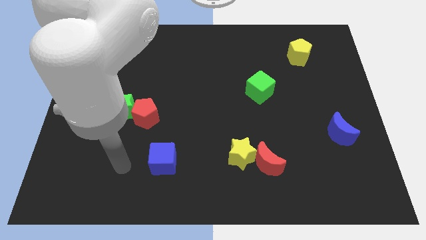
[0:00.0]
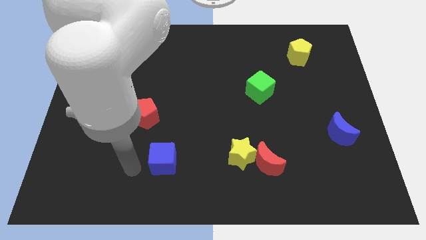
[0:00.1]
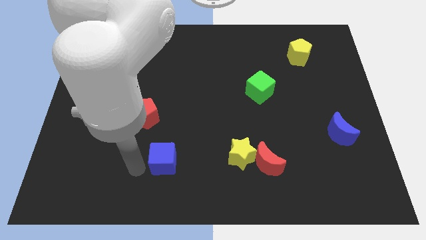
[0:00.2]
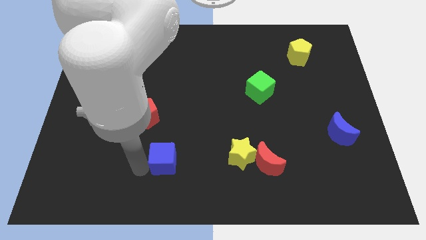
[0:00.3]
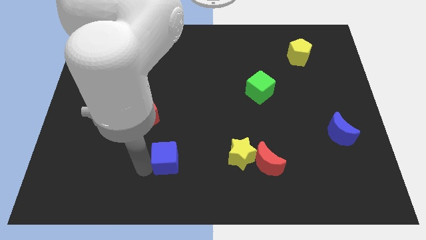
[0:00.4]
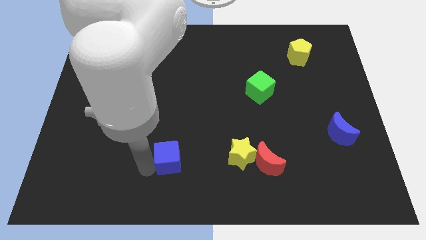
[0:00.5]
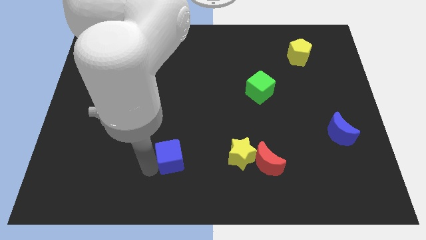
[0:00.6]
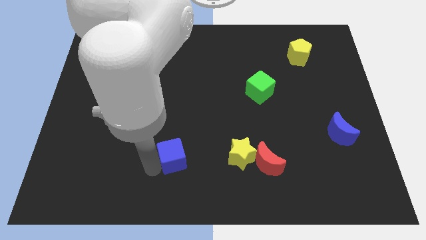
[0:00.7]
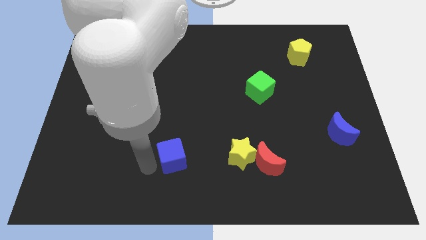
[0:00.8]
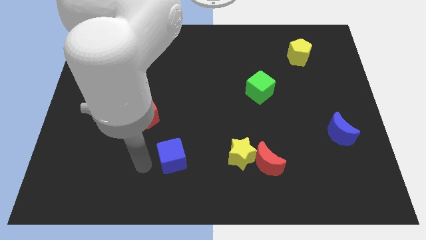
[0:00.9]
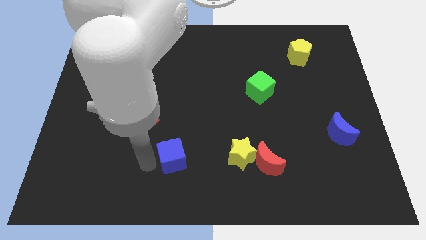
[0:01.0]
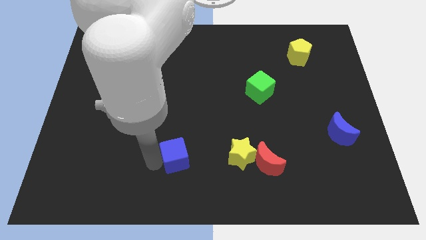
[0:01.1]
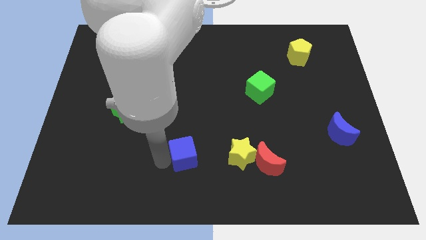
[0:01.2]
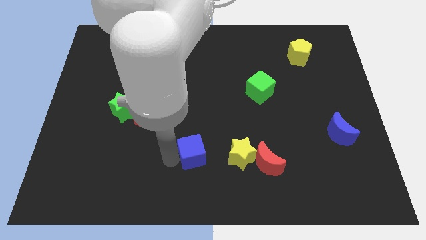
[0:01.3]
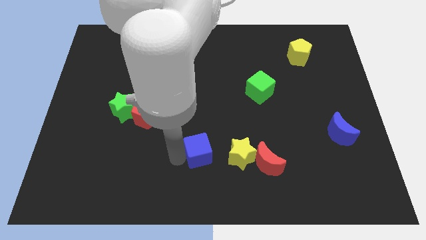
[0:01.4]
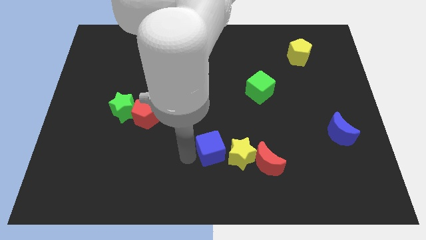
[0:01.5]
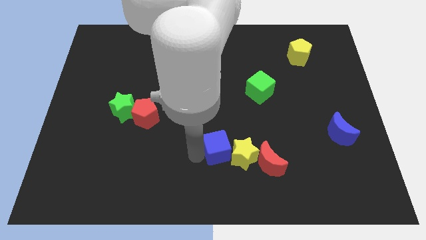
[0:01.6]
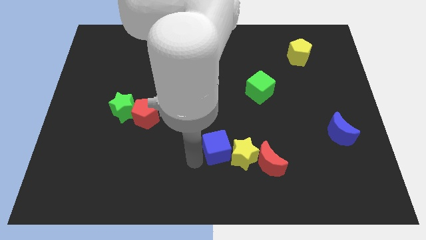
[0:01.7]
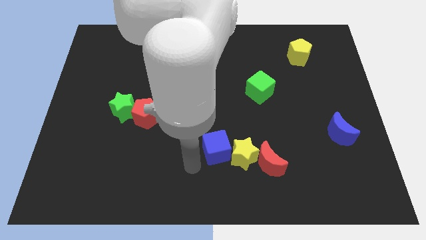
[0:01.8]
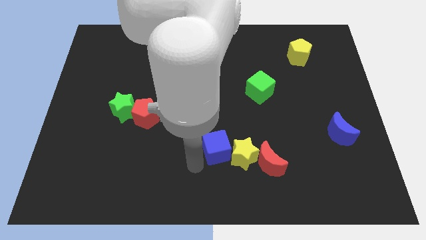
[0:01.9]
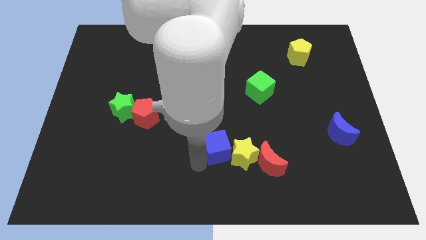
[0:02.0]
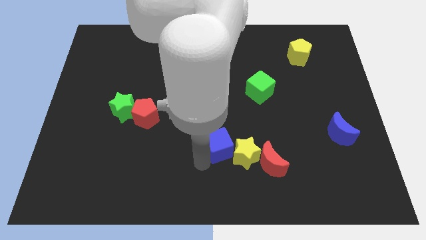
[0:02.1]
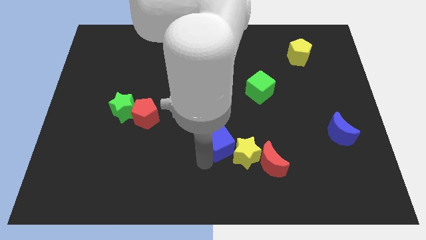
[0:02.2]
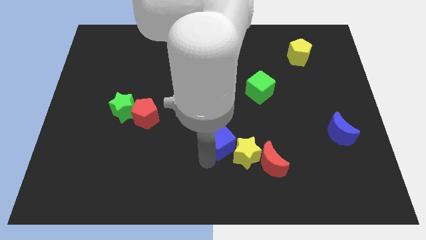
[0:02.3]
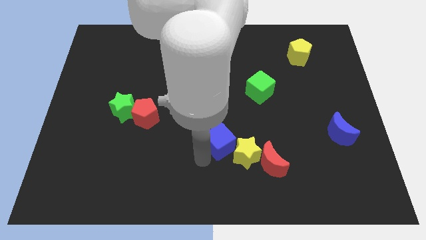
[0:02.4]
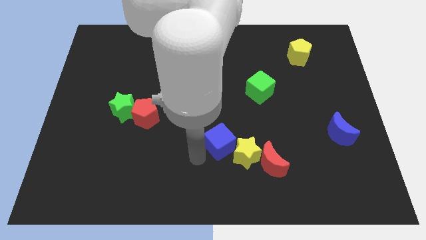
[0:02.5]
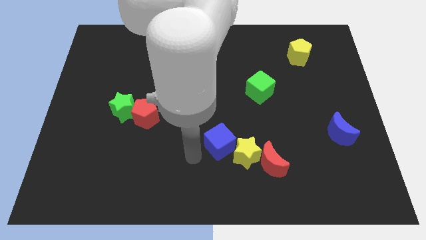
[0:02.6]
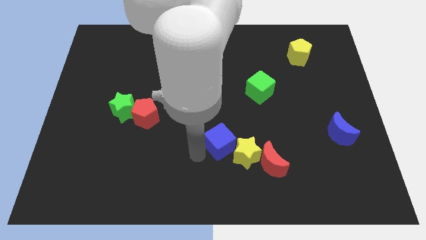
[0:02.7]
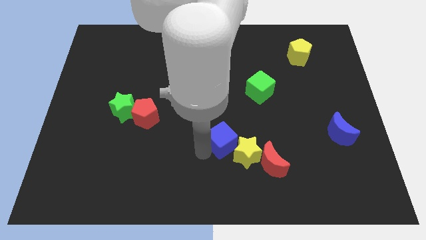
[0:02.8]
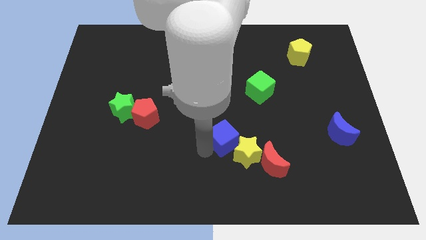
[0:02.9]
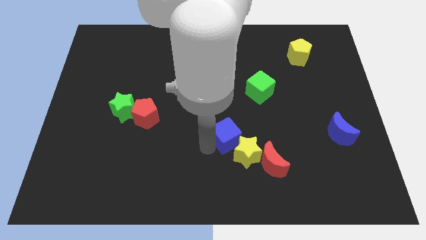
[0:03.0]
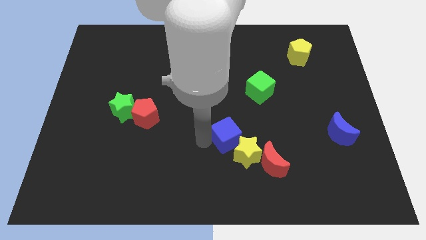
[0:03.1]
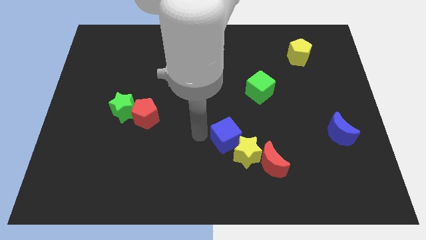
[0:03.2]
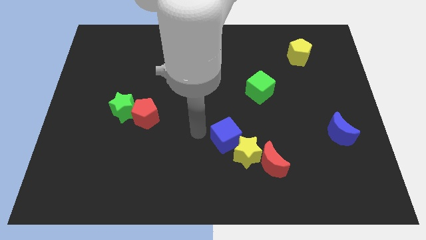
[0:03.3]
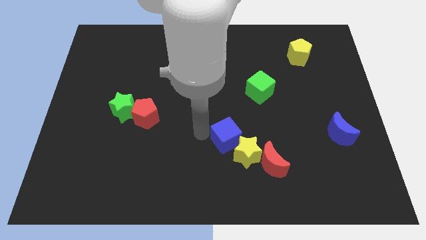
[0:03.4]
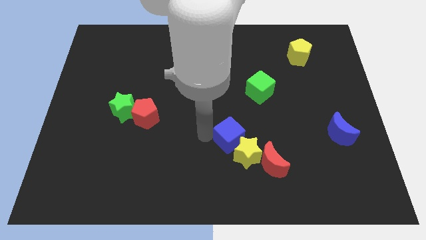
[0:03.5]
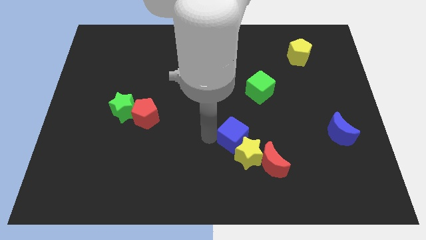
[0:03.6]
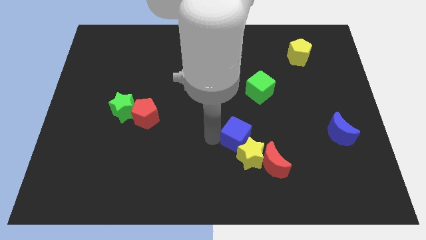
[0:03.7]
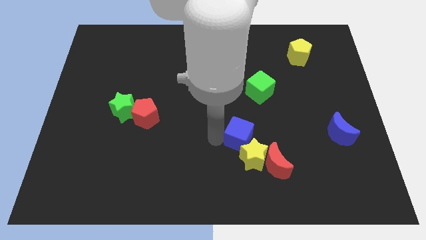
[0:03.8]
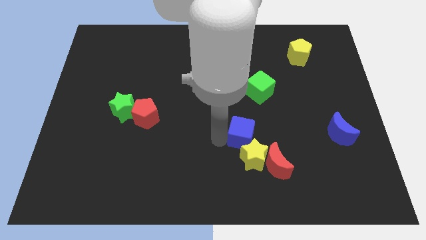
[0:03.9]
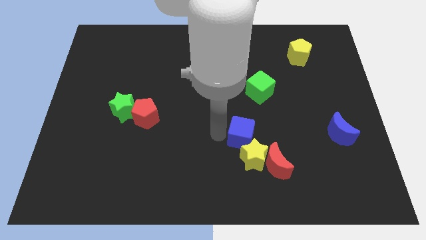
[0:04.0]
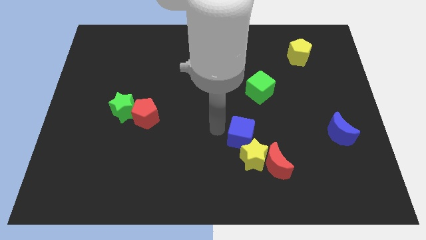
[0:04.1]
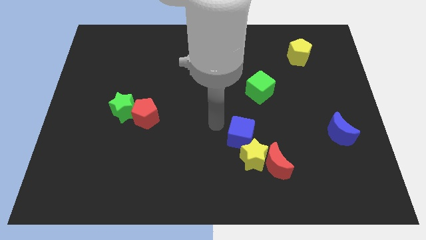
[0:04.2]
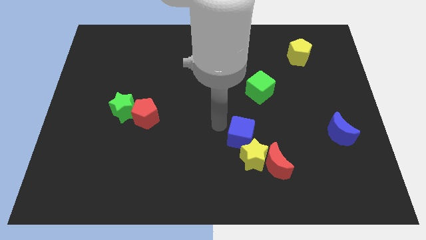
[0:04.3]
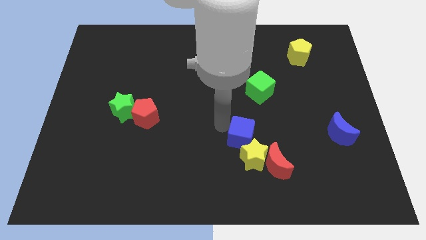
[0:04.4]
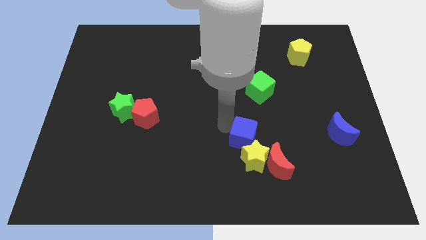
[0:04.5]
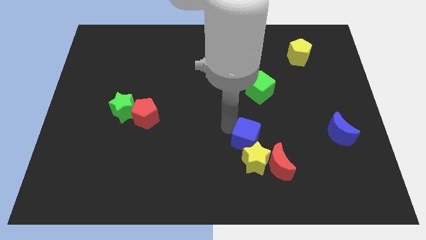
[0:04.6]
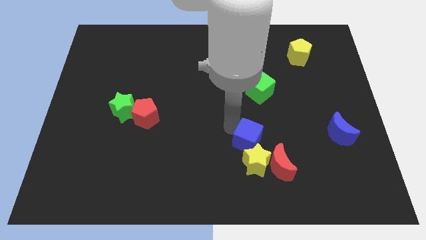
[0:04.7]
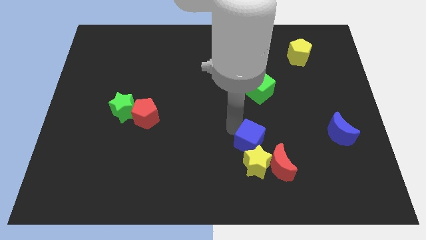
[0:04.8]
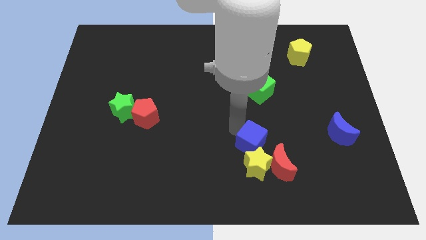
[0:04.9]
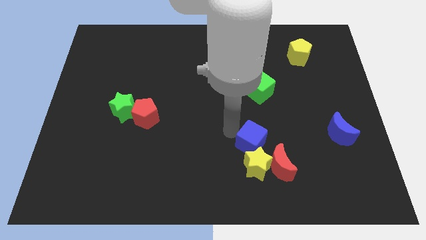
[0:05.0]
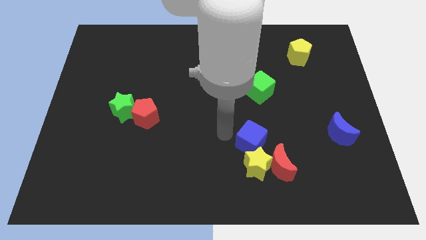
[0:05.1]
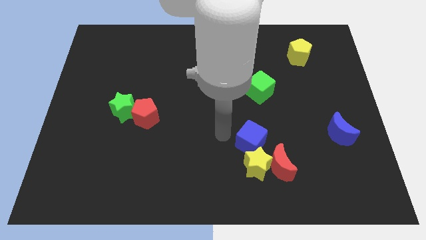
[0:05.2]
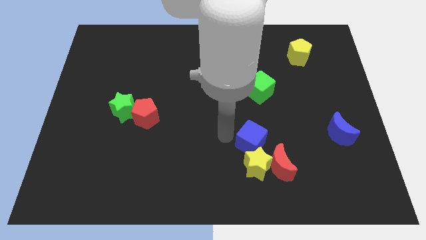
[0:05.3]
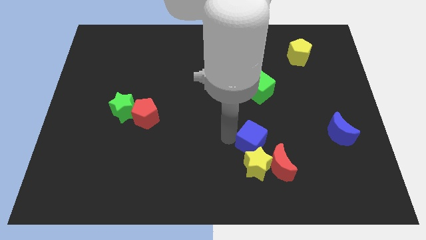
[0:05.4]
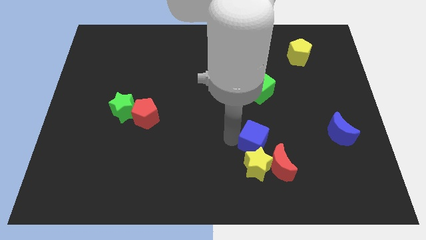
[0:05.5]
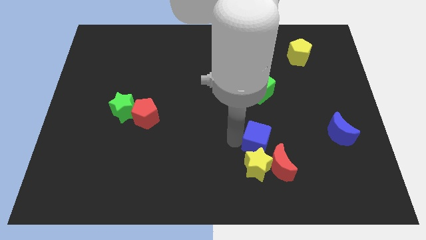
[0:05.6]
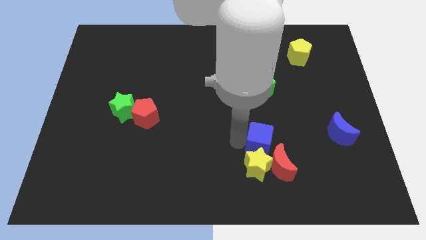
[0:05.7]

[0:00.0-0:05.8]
slide the blue cube to the right

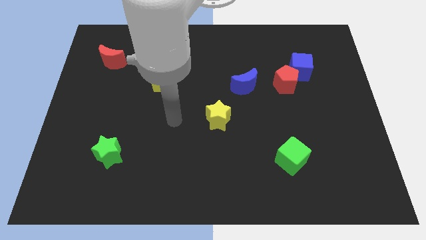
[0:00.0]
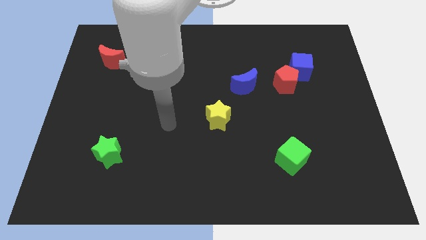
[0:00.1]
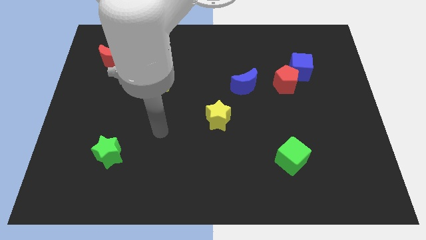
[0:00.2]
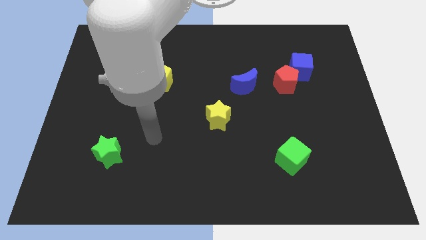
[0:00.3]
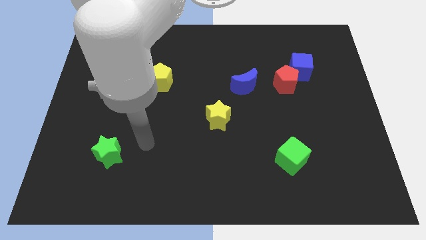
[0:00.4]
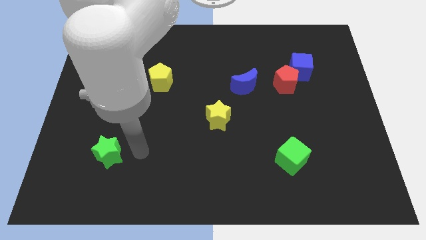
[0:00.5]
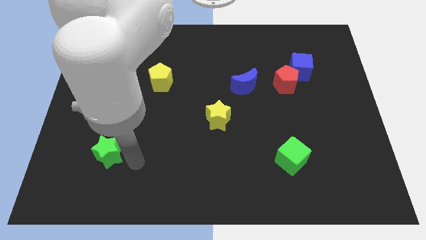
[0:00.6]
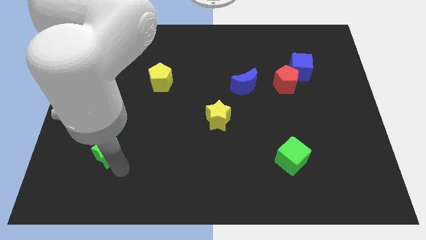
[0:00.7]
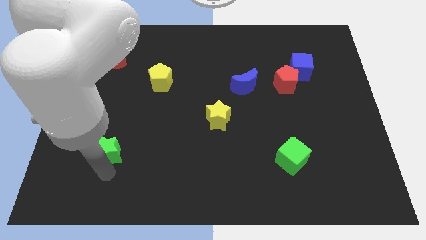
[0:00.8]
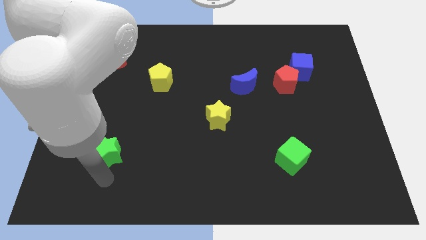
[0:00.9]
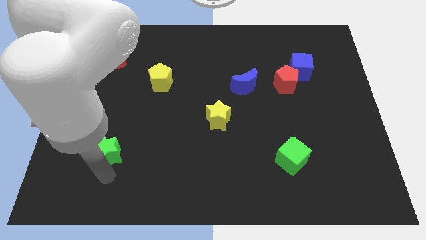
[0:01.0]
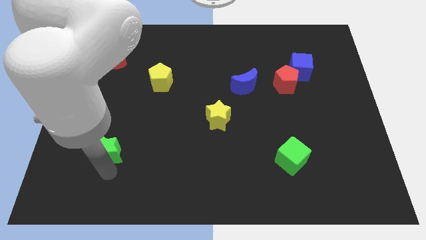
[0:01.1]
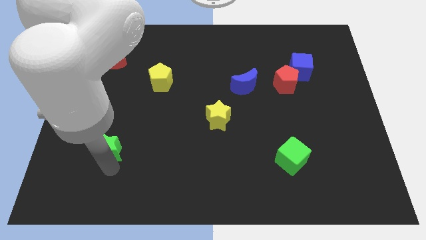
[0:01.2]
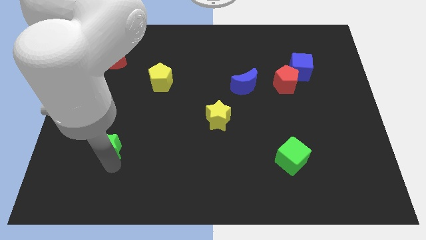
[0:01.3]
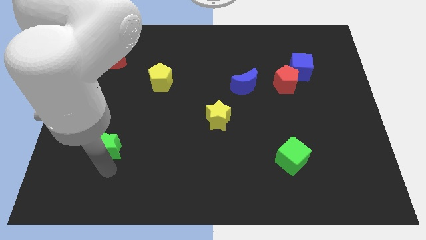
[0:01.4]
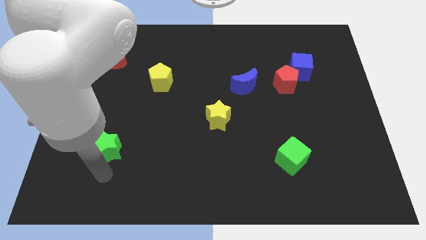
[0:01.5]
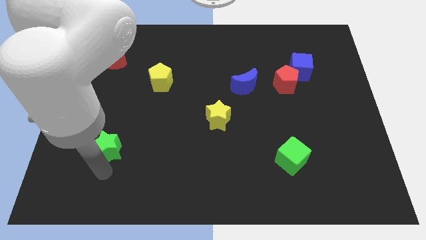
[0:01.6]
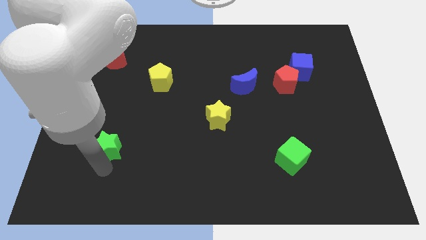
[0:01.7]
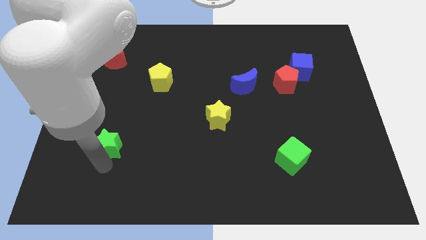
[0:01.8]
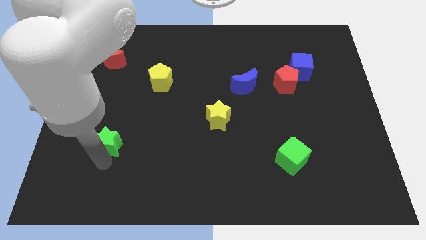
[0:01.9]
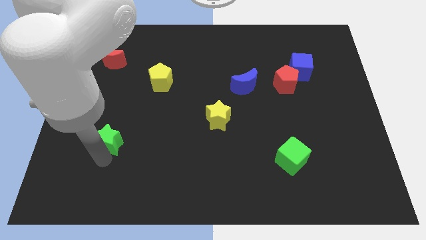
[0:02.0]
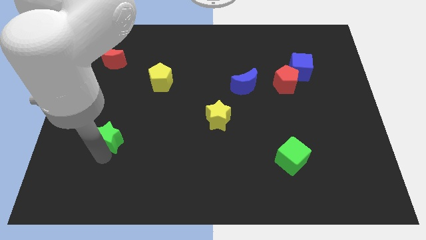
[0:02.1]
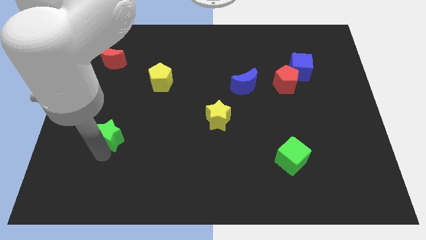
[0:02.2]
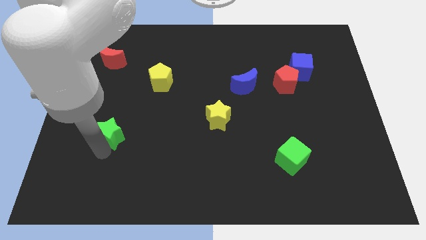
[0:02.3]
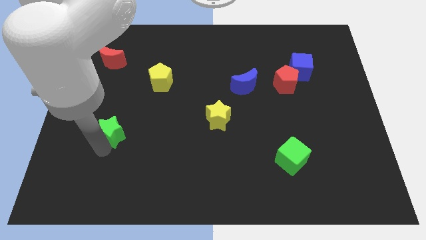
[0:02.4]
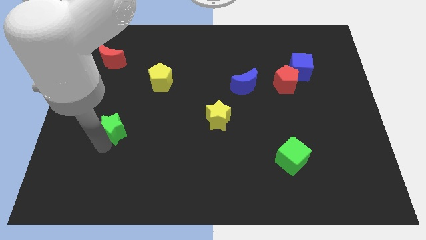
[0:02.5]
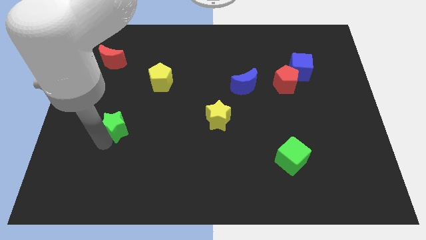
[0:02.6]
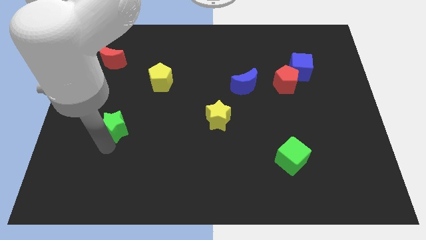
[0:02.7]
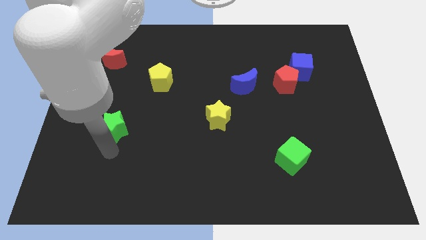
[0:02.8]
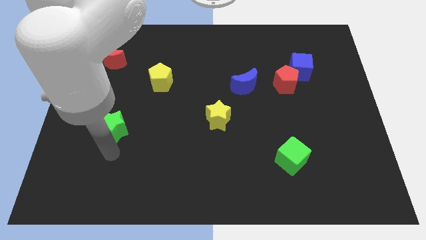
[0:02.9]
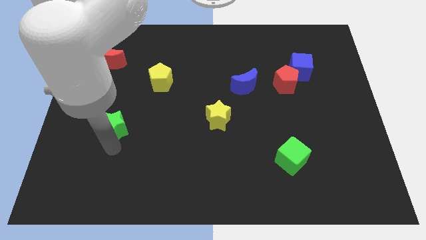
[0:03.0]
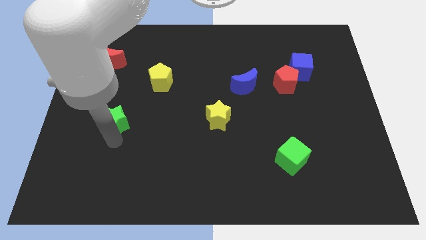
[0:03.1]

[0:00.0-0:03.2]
slightly move the green star upwards
